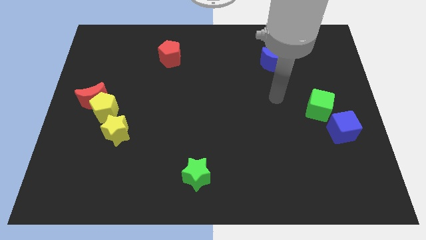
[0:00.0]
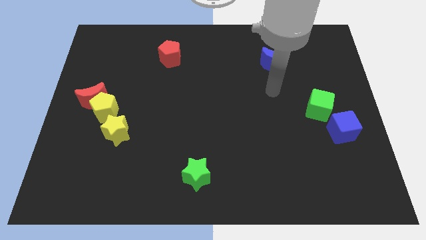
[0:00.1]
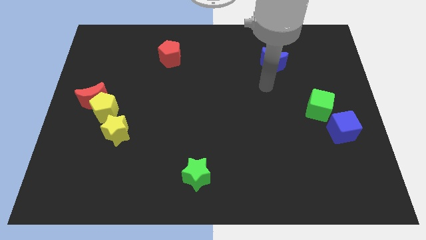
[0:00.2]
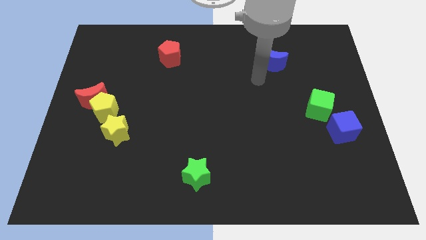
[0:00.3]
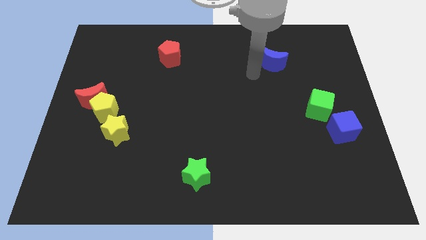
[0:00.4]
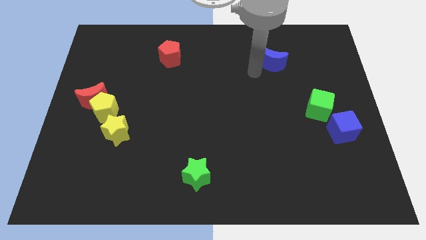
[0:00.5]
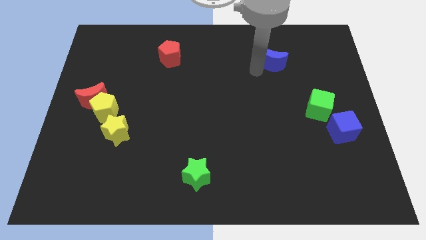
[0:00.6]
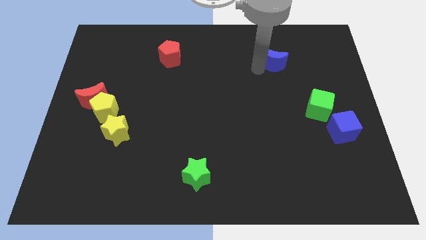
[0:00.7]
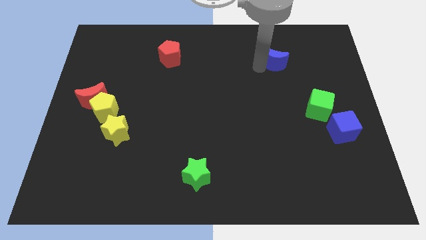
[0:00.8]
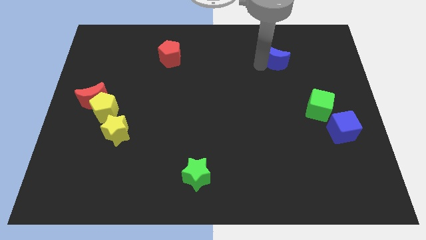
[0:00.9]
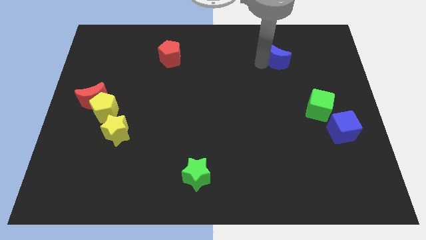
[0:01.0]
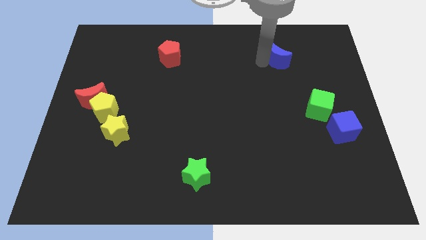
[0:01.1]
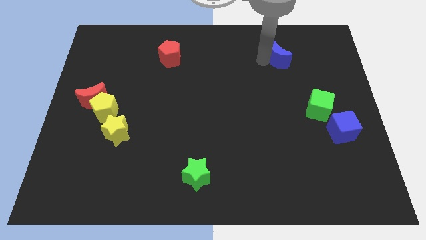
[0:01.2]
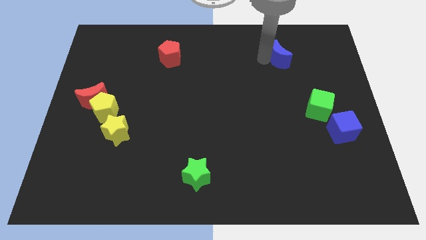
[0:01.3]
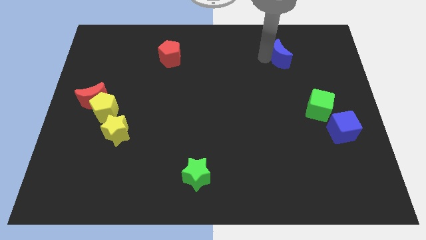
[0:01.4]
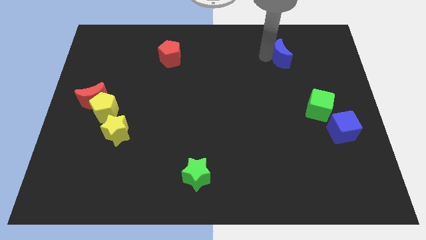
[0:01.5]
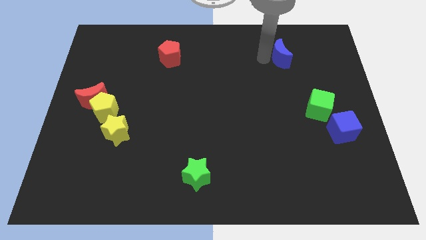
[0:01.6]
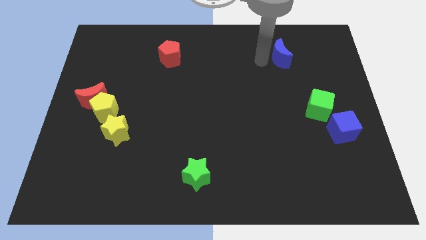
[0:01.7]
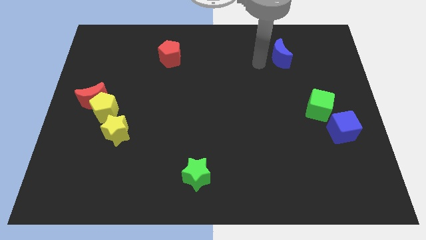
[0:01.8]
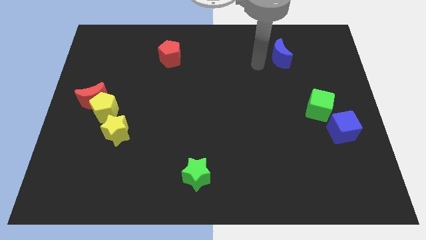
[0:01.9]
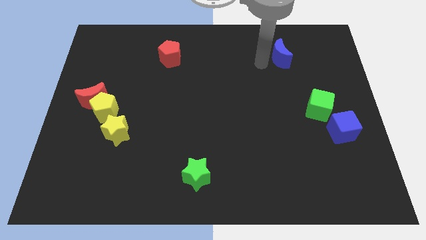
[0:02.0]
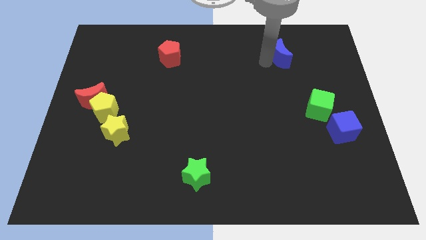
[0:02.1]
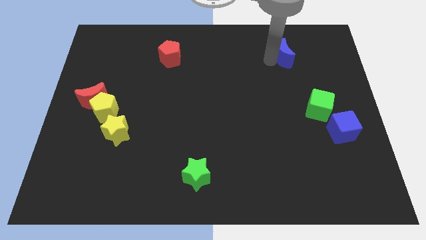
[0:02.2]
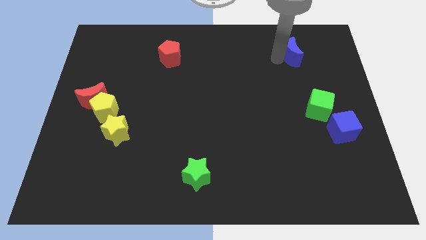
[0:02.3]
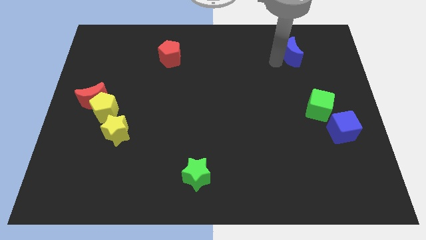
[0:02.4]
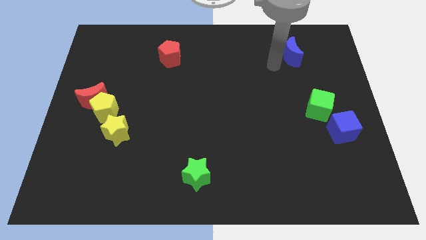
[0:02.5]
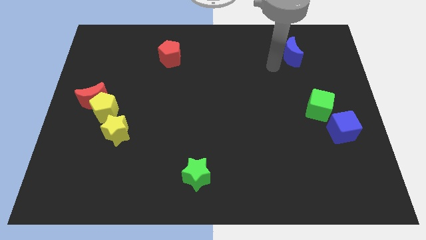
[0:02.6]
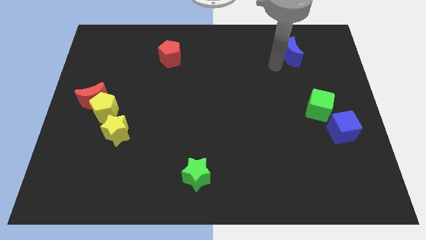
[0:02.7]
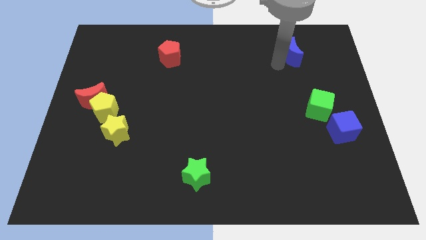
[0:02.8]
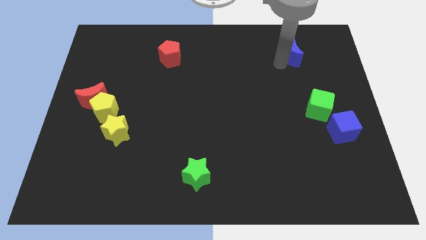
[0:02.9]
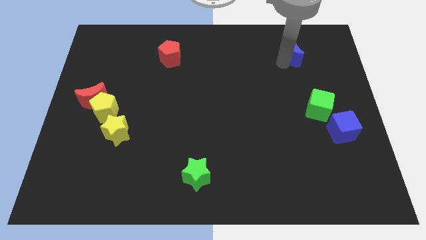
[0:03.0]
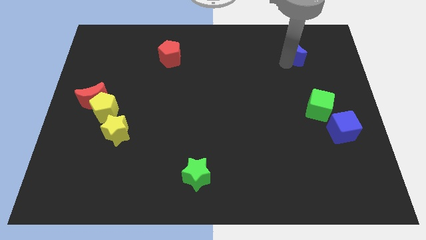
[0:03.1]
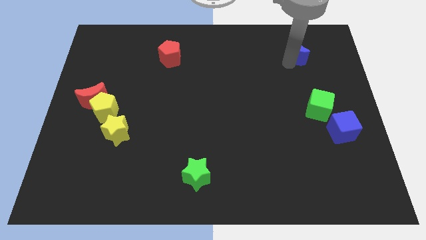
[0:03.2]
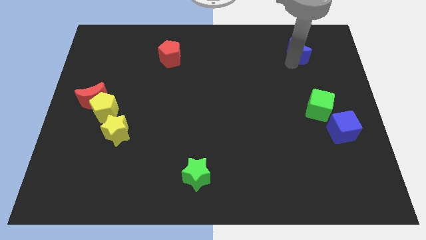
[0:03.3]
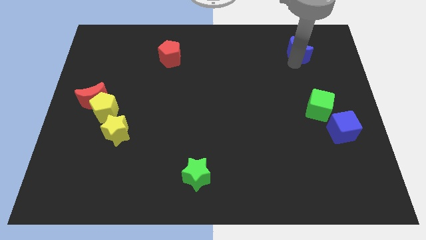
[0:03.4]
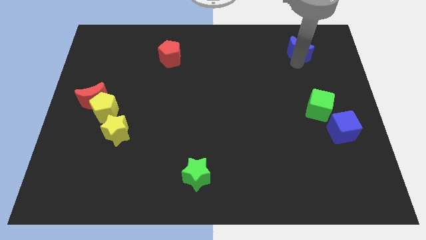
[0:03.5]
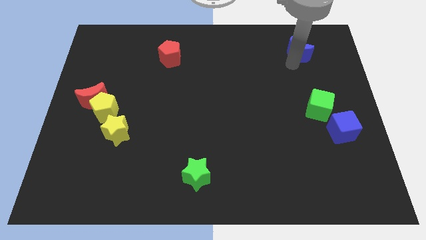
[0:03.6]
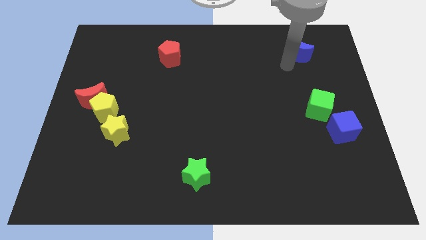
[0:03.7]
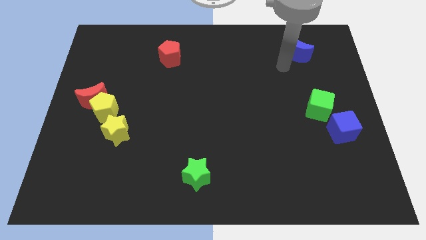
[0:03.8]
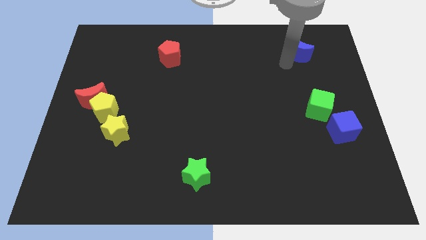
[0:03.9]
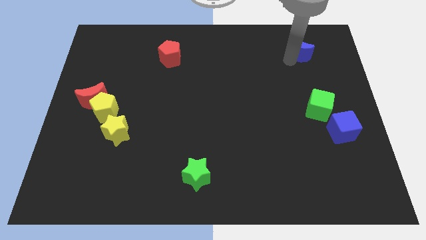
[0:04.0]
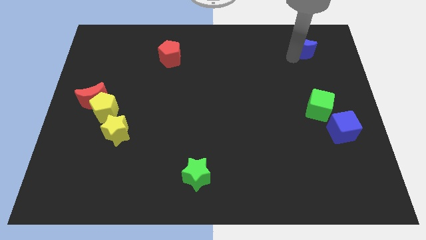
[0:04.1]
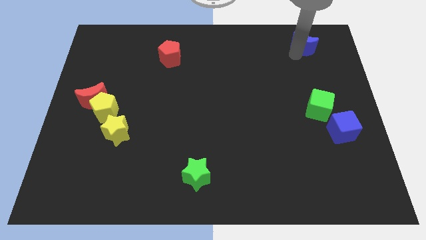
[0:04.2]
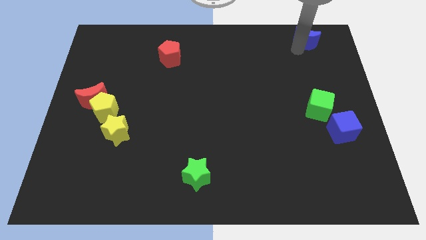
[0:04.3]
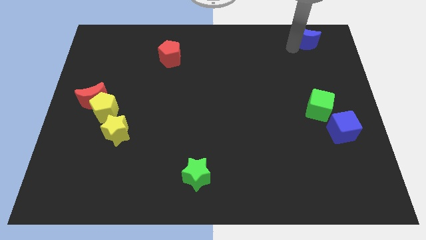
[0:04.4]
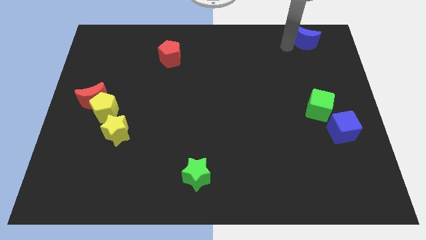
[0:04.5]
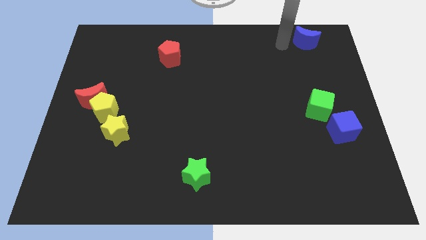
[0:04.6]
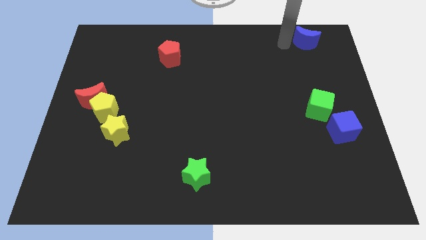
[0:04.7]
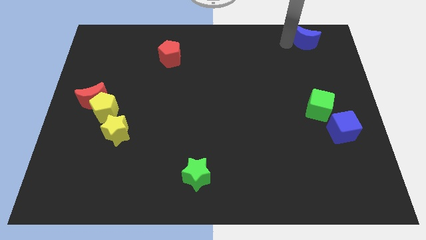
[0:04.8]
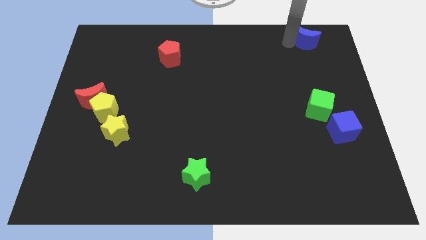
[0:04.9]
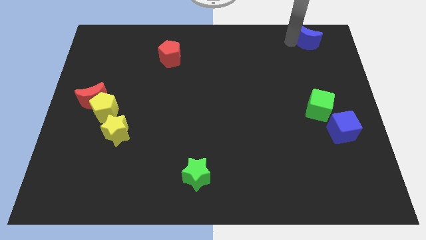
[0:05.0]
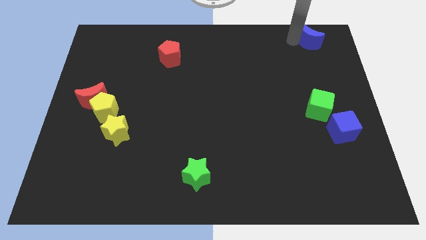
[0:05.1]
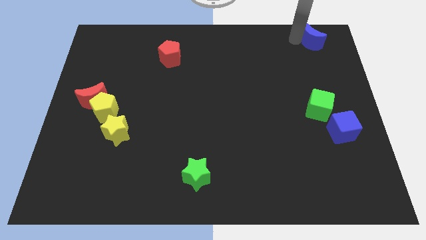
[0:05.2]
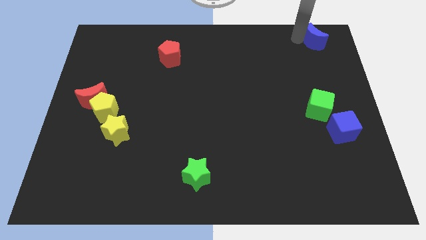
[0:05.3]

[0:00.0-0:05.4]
slide the blue moon to the top right

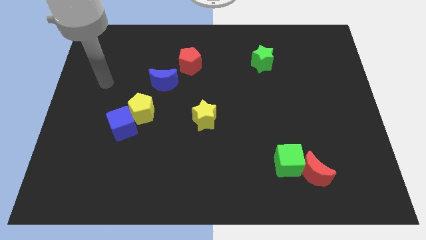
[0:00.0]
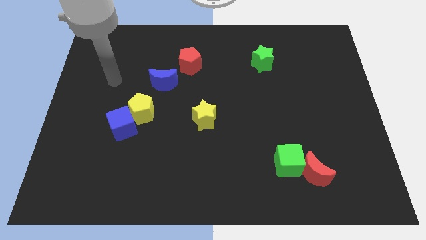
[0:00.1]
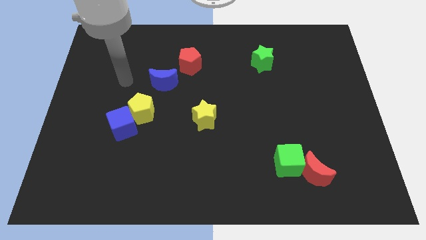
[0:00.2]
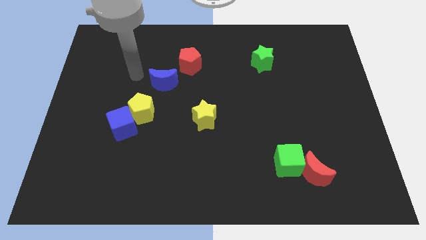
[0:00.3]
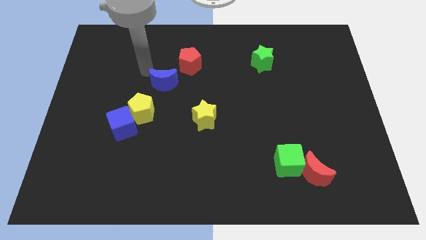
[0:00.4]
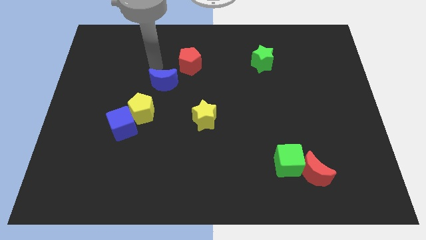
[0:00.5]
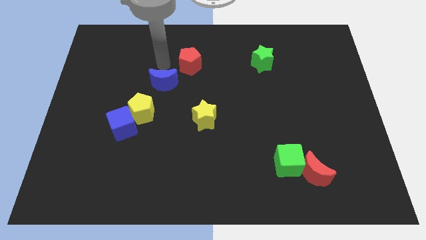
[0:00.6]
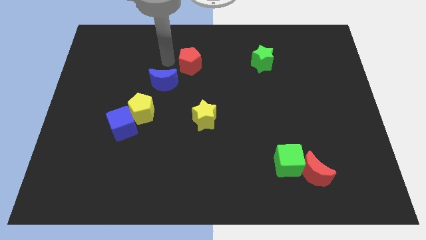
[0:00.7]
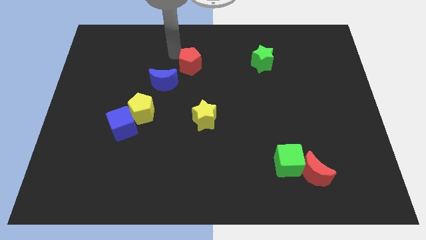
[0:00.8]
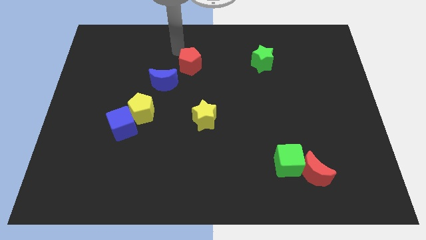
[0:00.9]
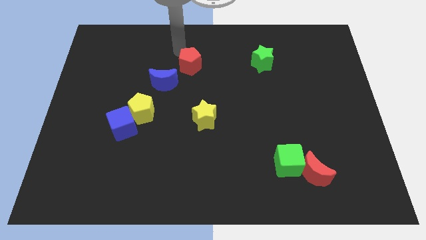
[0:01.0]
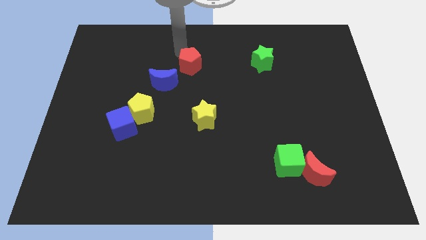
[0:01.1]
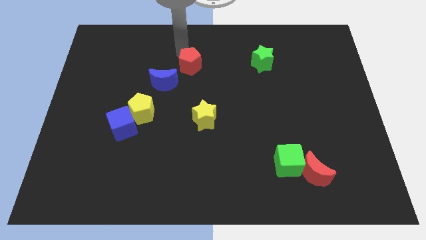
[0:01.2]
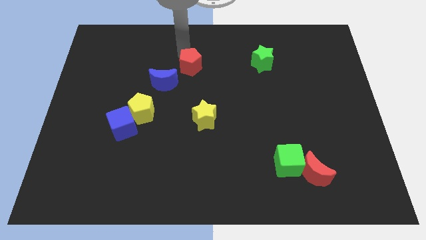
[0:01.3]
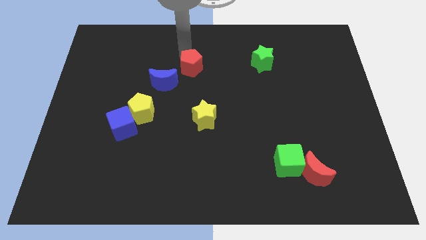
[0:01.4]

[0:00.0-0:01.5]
put the red pentagon to the middle
